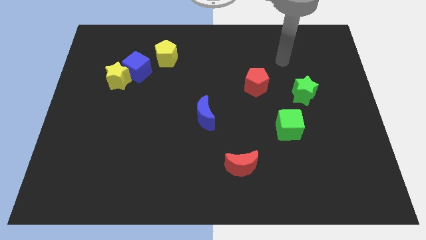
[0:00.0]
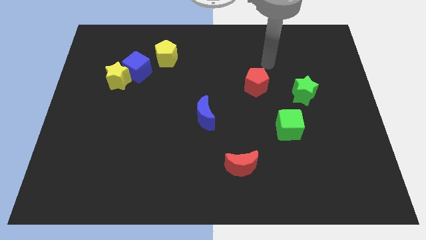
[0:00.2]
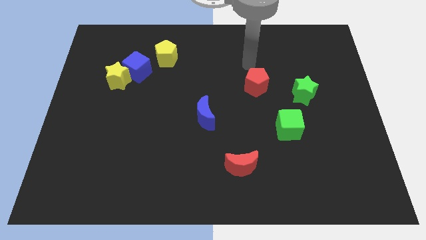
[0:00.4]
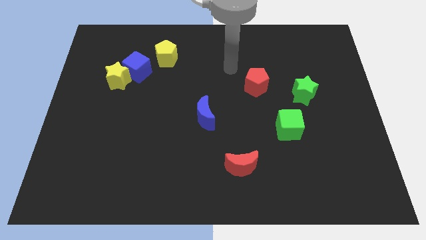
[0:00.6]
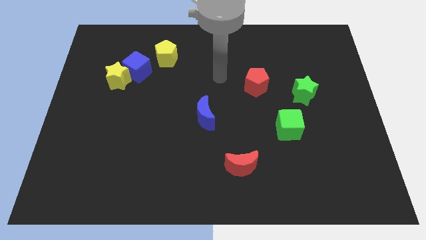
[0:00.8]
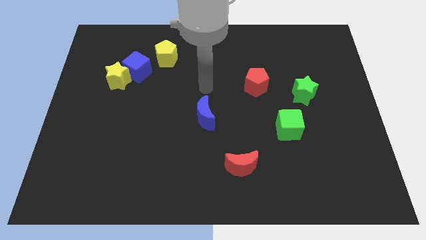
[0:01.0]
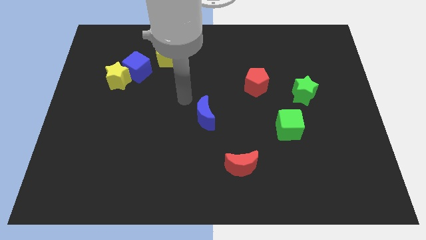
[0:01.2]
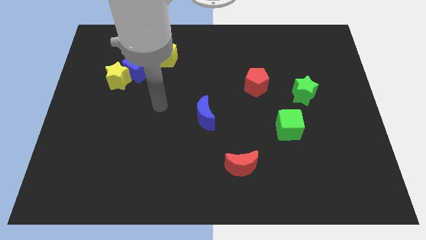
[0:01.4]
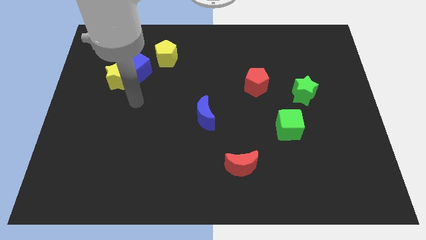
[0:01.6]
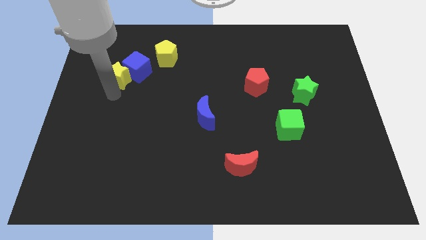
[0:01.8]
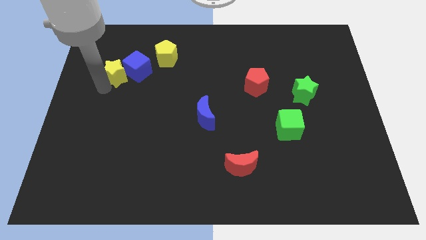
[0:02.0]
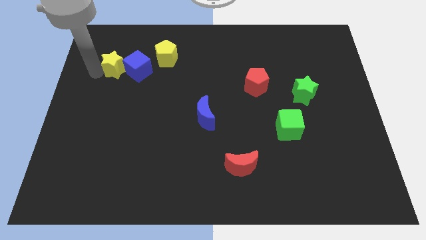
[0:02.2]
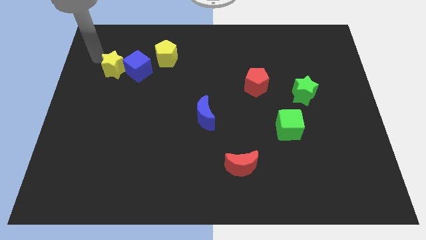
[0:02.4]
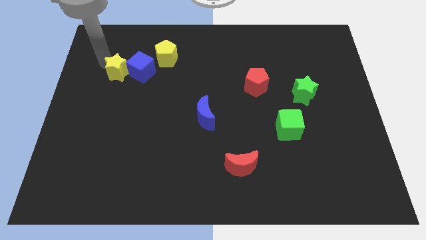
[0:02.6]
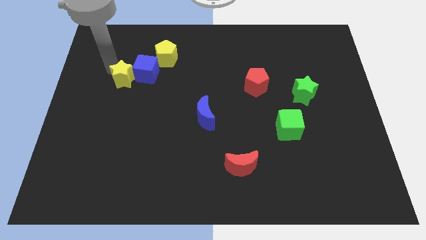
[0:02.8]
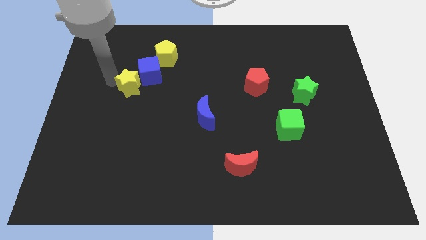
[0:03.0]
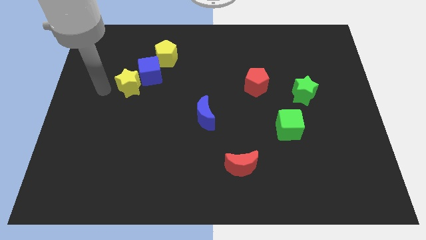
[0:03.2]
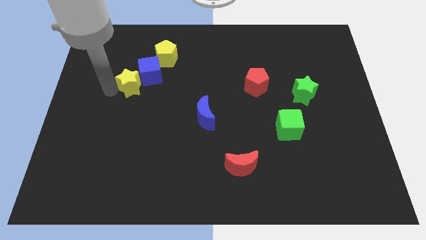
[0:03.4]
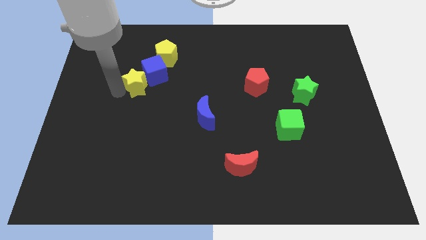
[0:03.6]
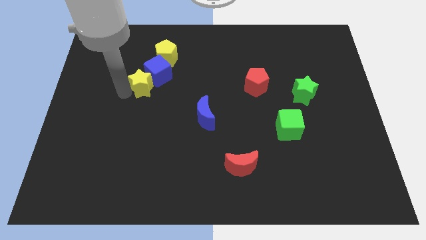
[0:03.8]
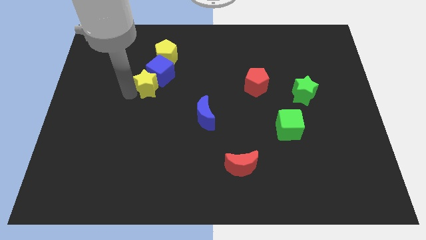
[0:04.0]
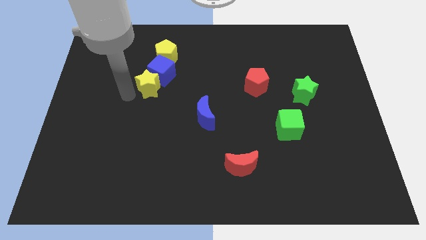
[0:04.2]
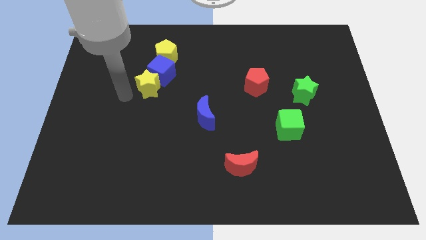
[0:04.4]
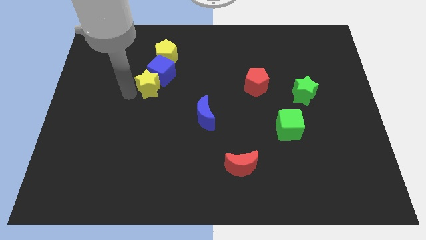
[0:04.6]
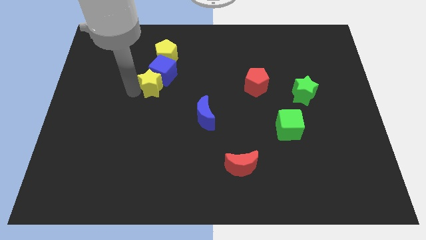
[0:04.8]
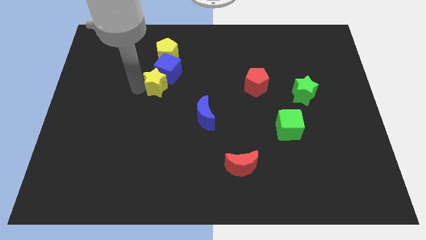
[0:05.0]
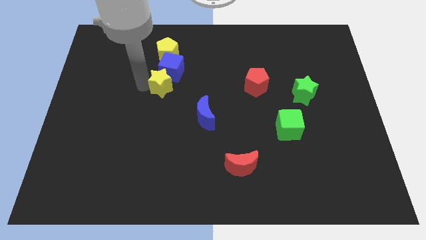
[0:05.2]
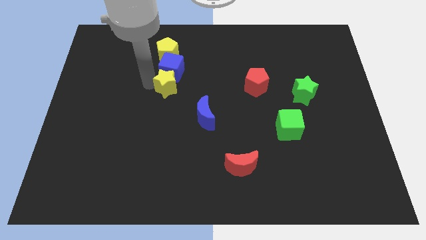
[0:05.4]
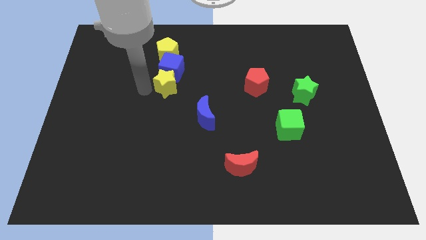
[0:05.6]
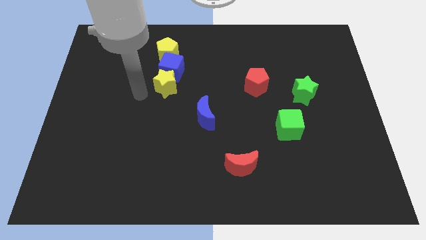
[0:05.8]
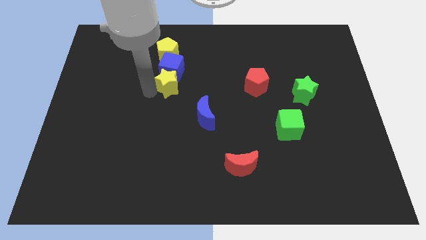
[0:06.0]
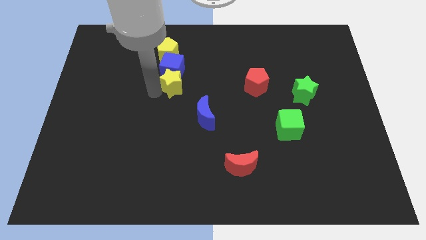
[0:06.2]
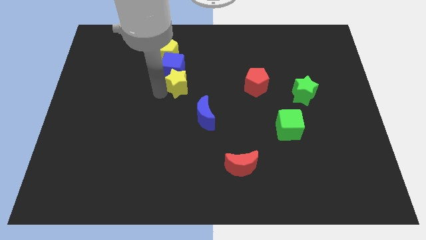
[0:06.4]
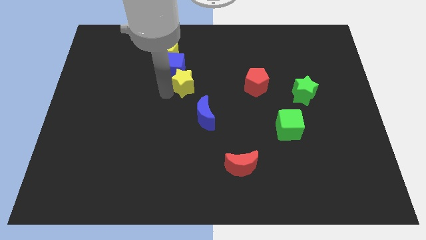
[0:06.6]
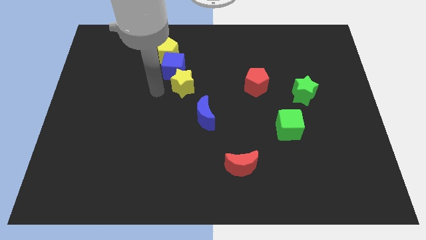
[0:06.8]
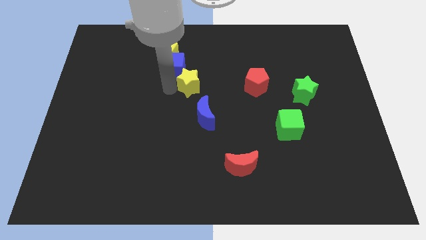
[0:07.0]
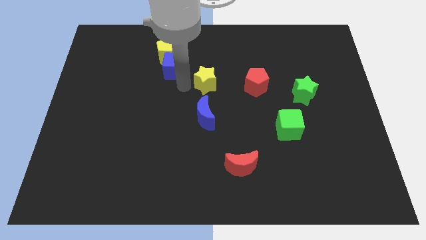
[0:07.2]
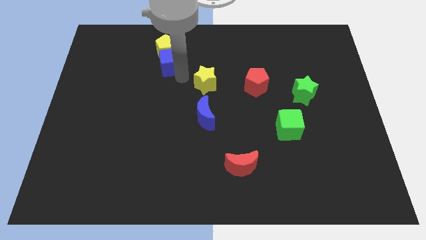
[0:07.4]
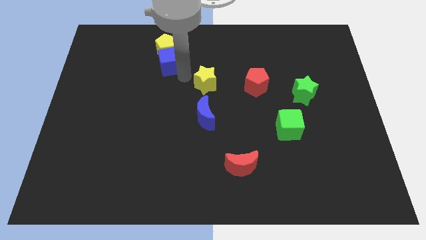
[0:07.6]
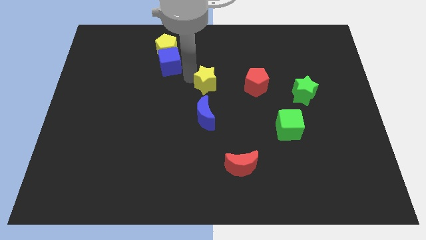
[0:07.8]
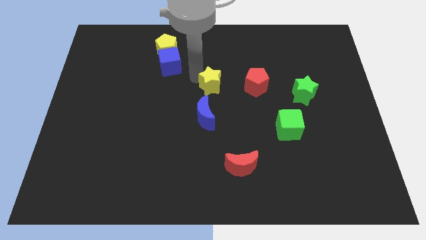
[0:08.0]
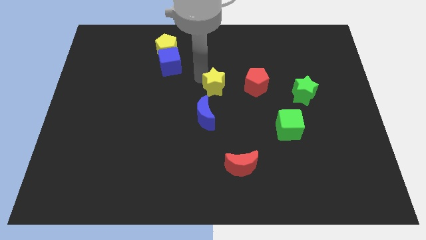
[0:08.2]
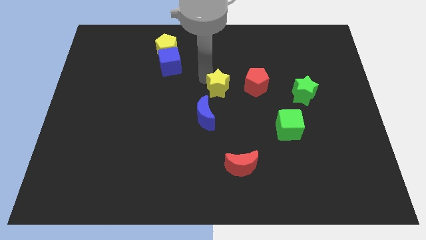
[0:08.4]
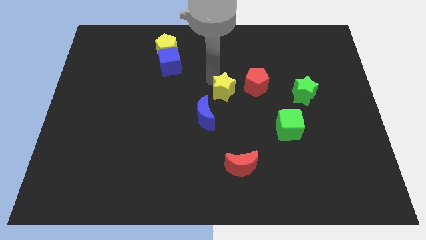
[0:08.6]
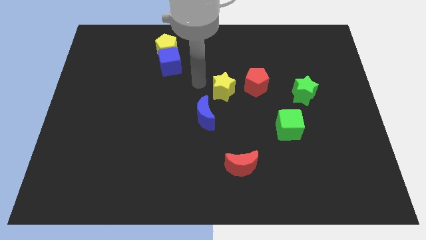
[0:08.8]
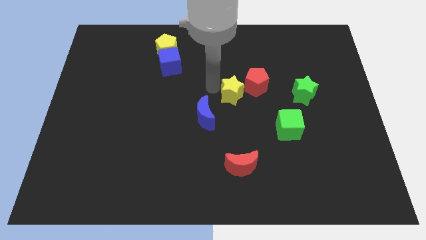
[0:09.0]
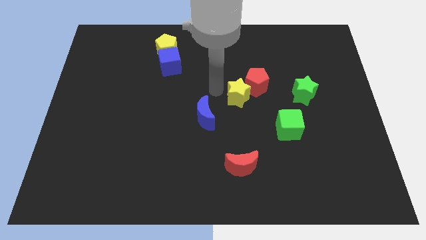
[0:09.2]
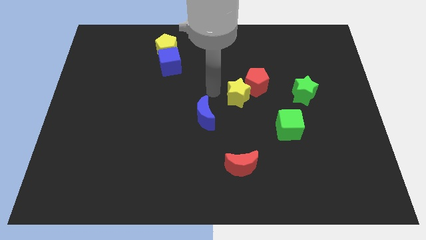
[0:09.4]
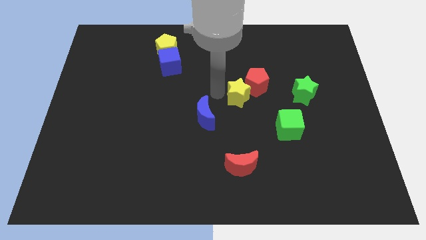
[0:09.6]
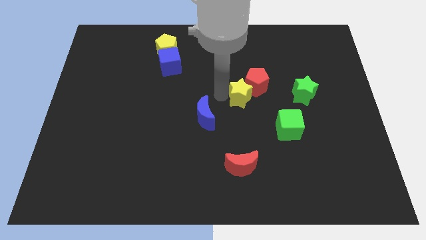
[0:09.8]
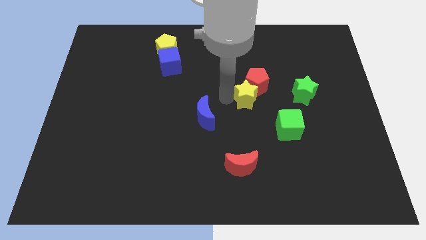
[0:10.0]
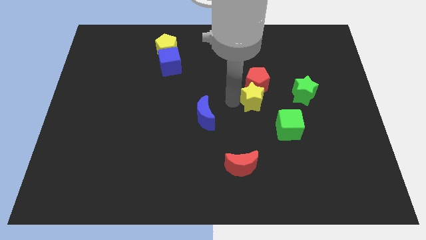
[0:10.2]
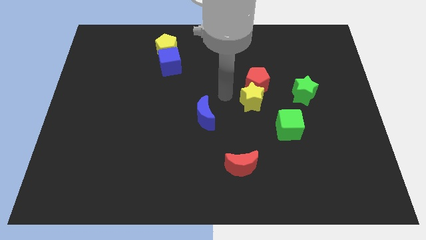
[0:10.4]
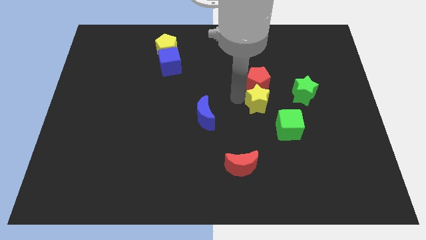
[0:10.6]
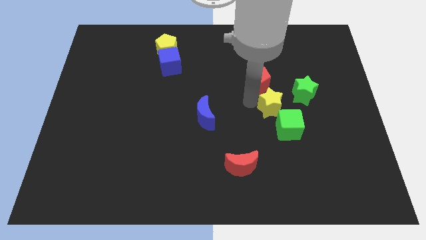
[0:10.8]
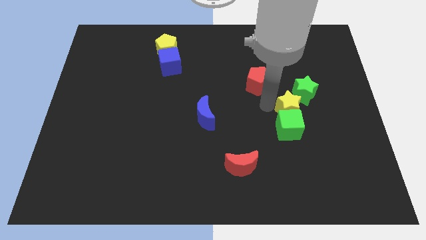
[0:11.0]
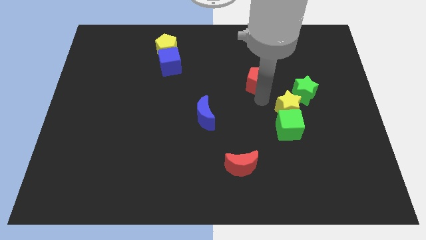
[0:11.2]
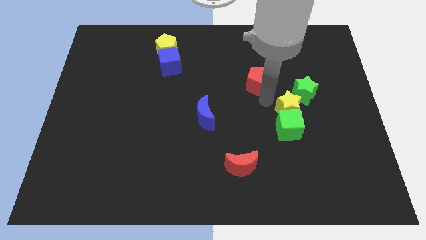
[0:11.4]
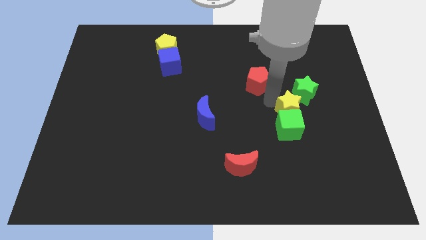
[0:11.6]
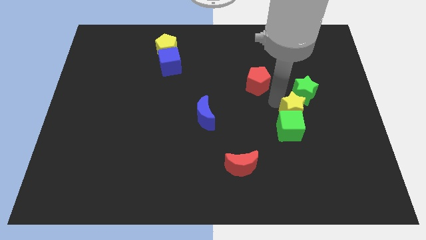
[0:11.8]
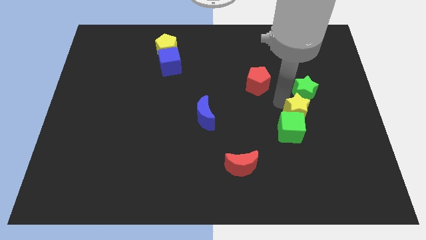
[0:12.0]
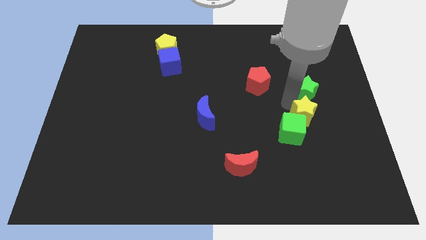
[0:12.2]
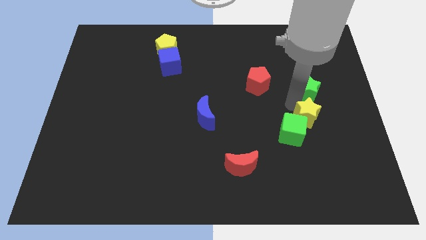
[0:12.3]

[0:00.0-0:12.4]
move the yellow star right of the green cube
